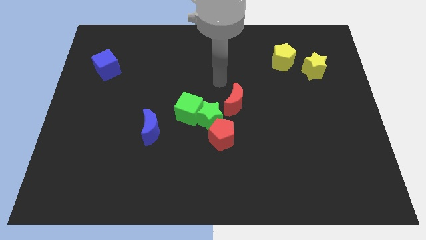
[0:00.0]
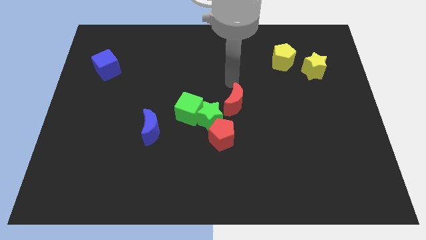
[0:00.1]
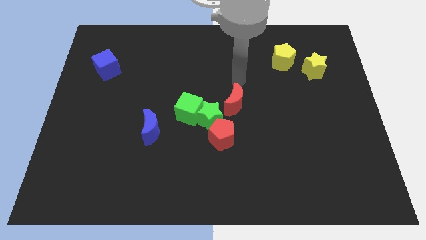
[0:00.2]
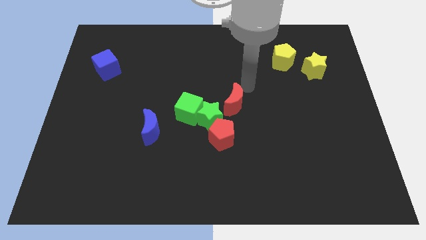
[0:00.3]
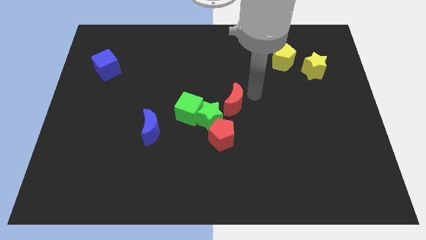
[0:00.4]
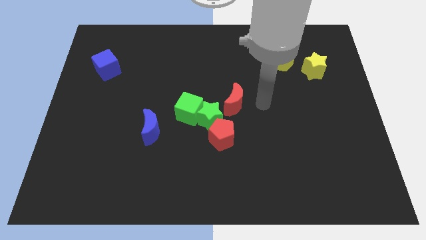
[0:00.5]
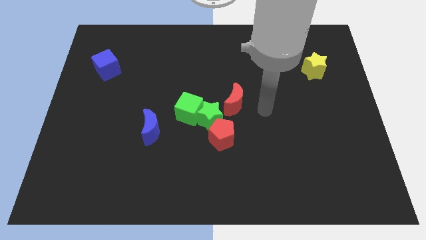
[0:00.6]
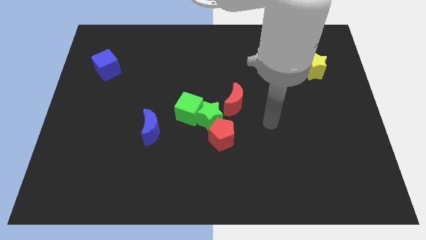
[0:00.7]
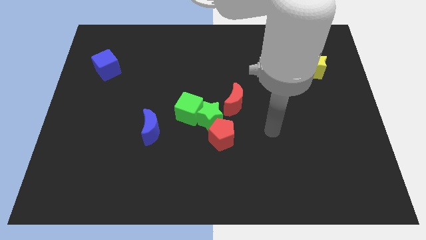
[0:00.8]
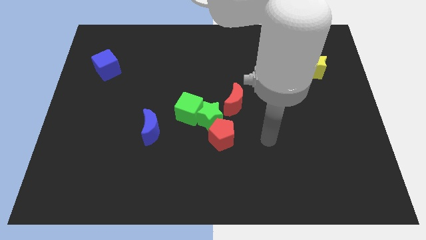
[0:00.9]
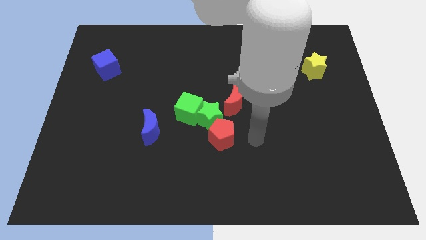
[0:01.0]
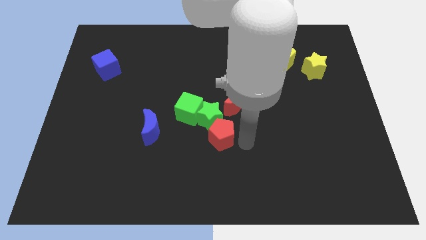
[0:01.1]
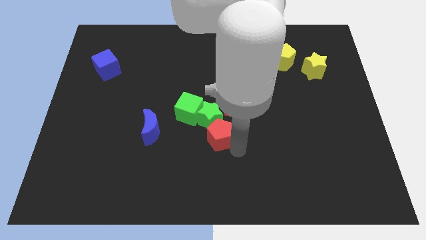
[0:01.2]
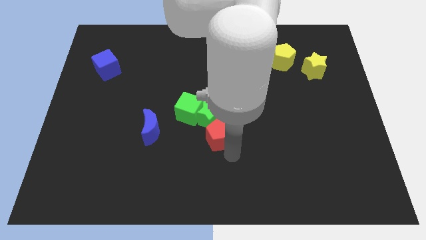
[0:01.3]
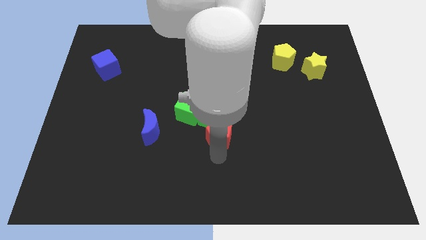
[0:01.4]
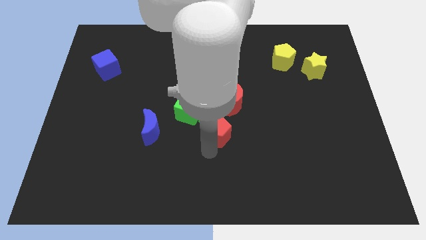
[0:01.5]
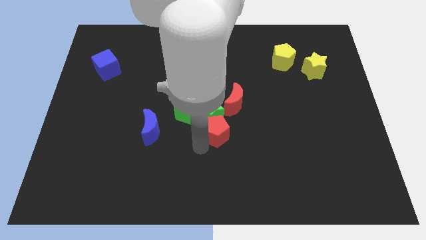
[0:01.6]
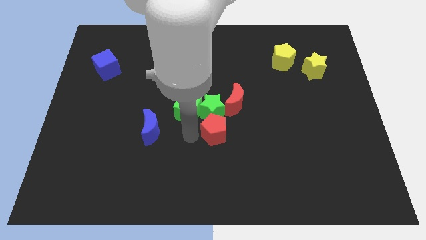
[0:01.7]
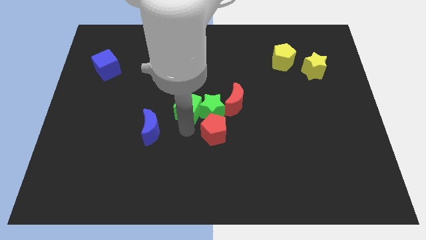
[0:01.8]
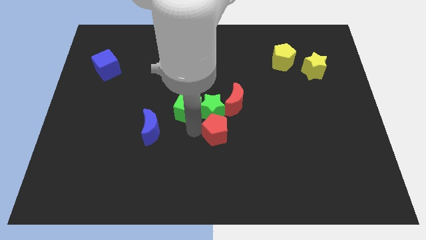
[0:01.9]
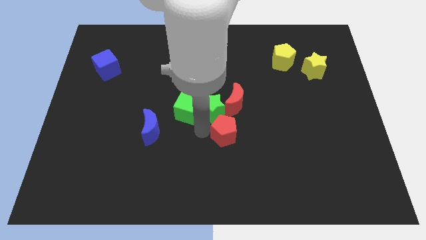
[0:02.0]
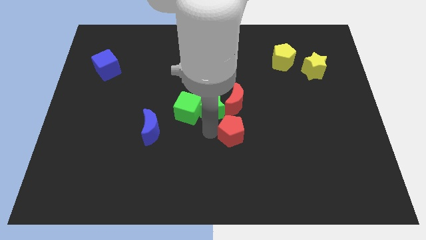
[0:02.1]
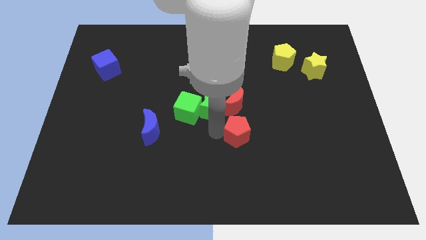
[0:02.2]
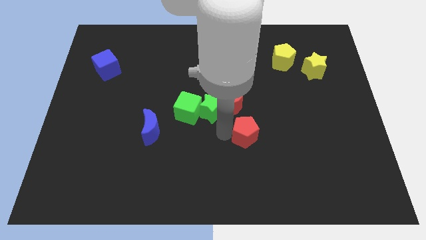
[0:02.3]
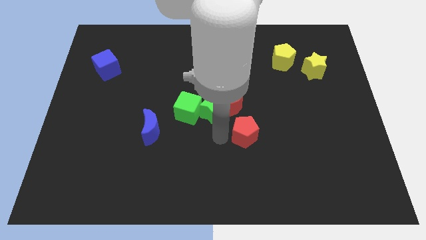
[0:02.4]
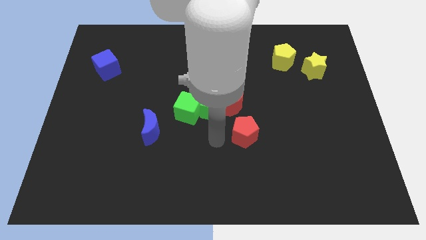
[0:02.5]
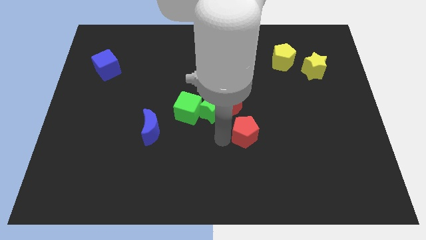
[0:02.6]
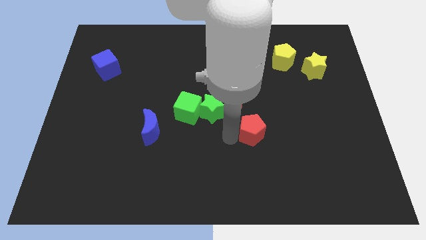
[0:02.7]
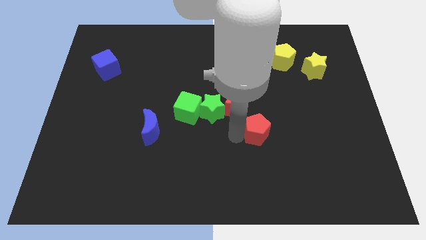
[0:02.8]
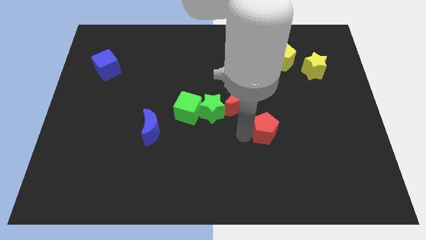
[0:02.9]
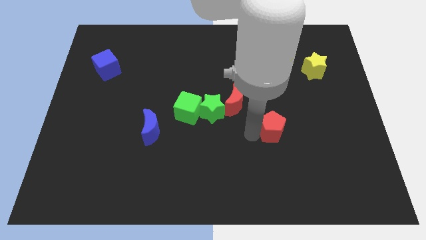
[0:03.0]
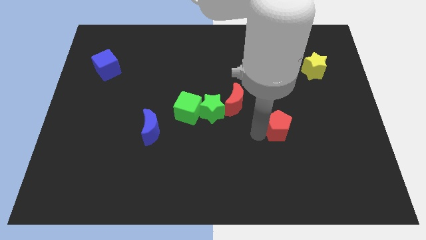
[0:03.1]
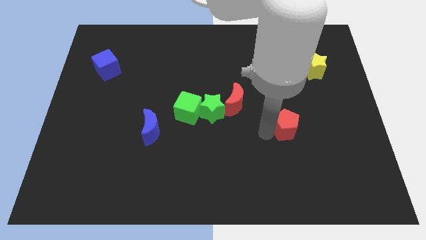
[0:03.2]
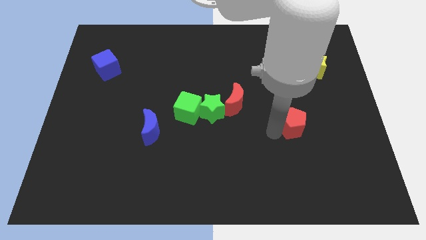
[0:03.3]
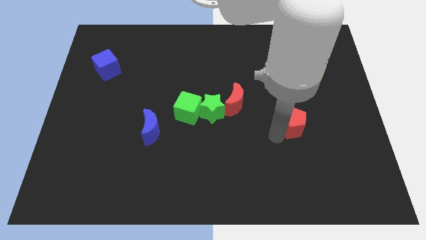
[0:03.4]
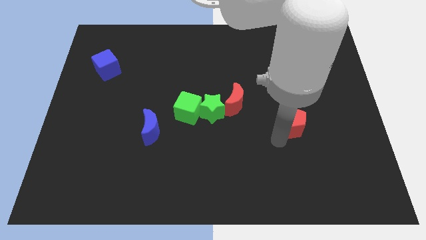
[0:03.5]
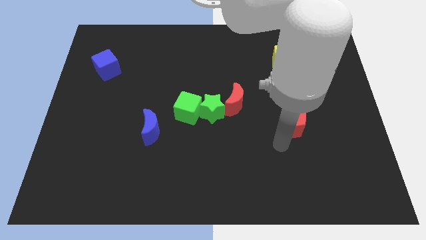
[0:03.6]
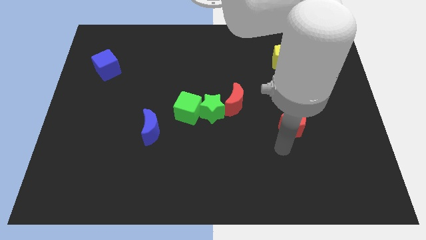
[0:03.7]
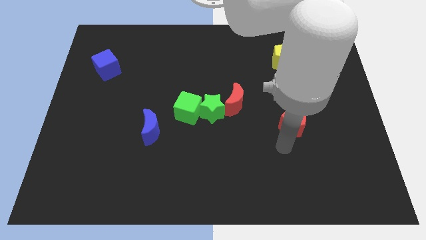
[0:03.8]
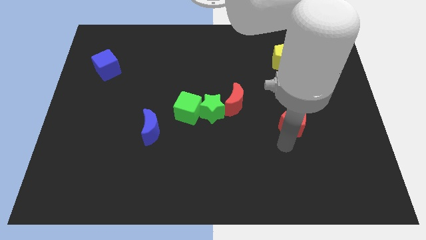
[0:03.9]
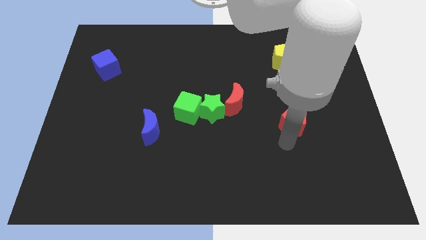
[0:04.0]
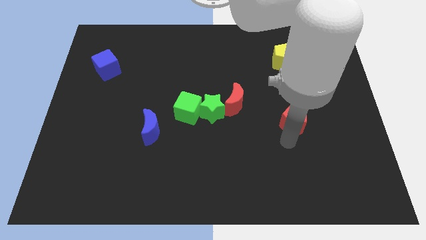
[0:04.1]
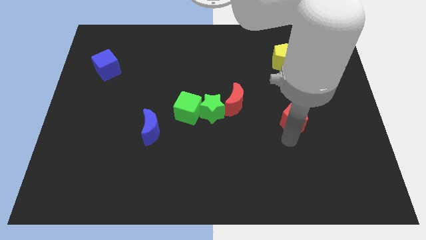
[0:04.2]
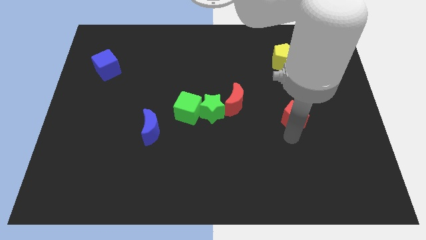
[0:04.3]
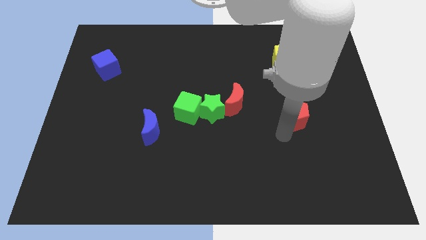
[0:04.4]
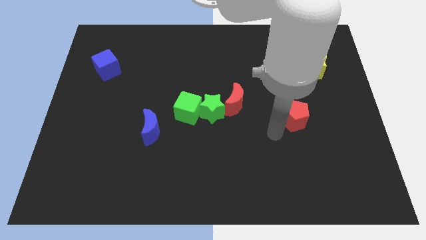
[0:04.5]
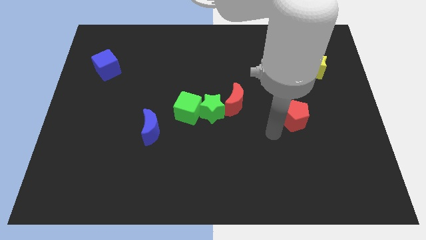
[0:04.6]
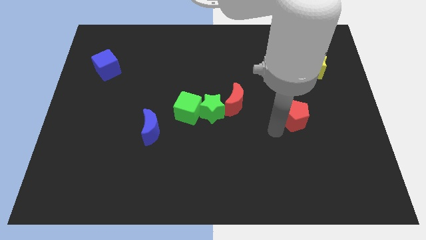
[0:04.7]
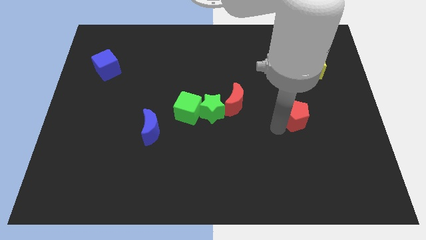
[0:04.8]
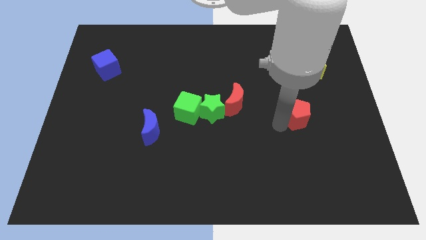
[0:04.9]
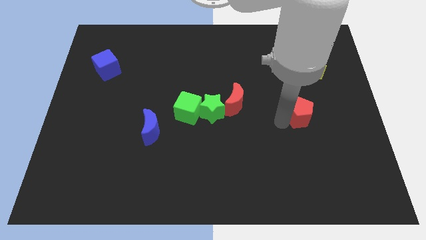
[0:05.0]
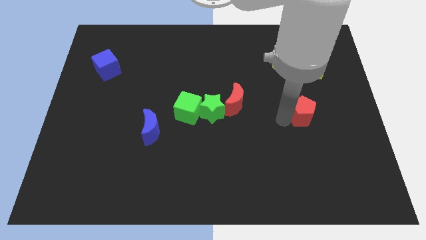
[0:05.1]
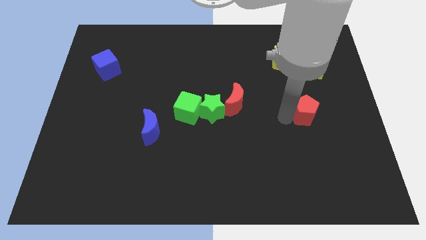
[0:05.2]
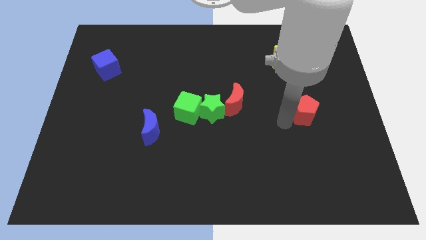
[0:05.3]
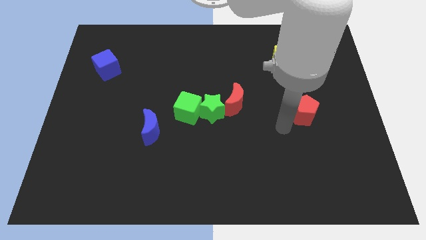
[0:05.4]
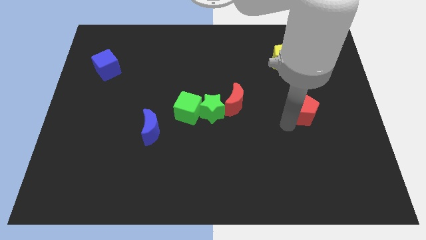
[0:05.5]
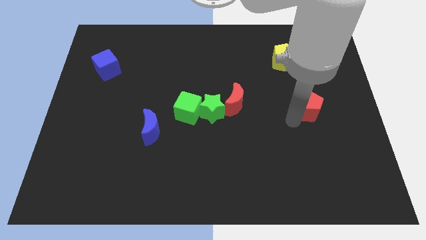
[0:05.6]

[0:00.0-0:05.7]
slide the red pentagon below the yellow star

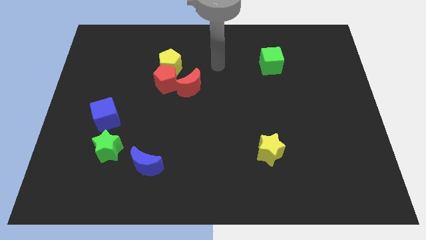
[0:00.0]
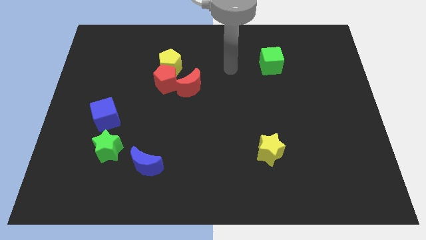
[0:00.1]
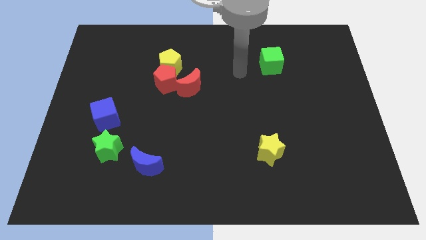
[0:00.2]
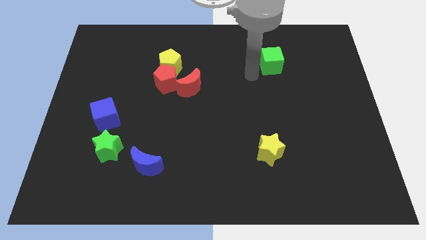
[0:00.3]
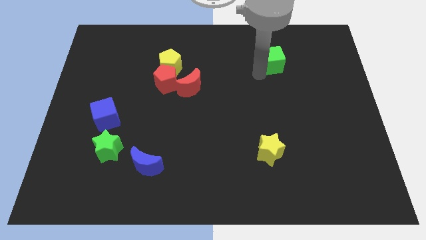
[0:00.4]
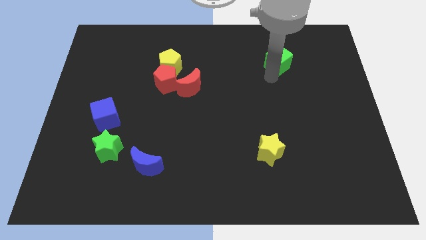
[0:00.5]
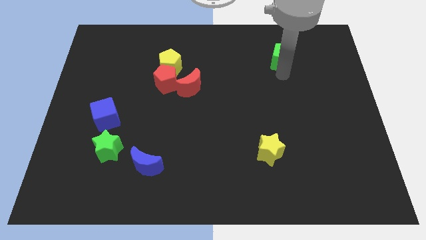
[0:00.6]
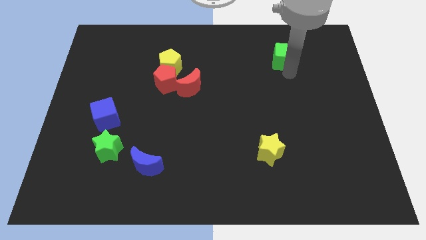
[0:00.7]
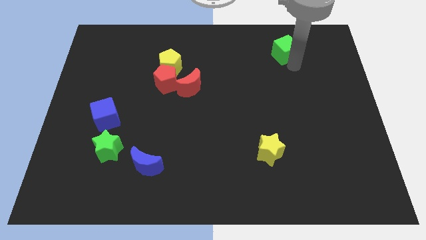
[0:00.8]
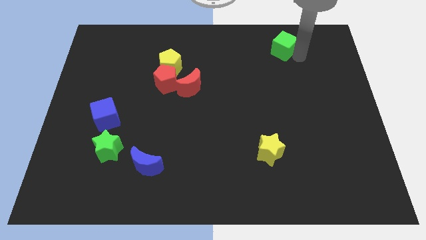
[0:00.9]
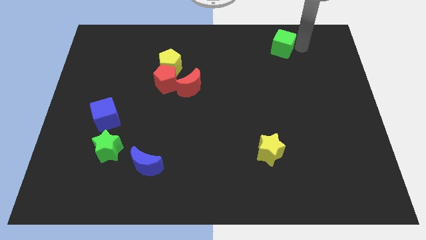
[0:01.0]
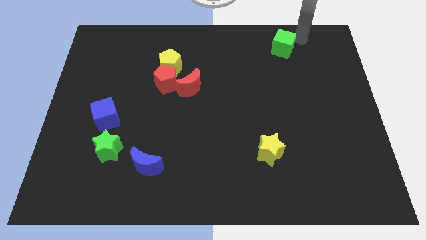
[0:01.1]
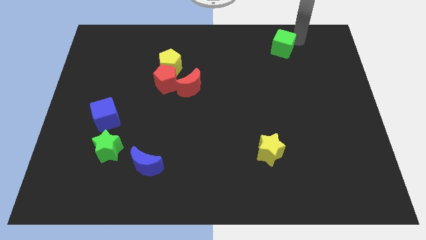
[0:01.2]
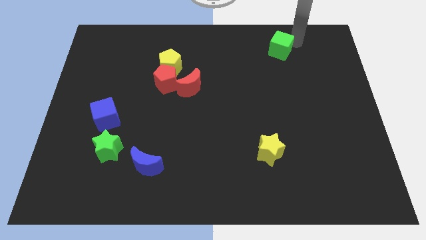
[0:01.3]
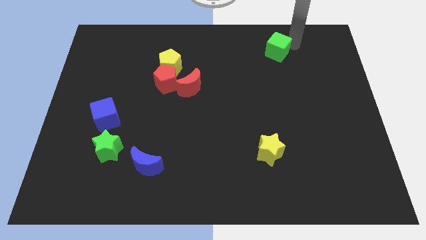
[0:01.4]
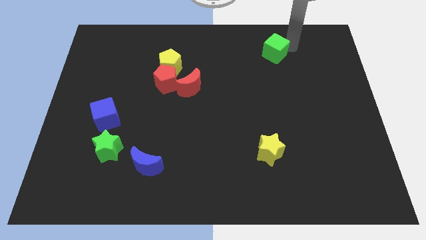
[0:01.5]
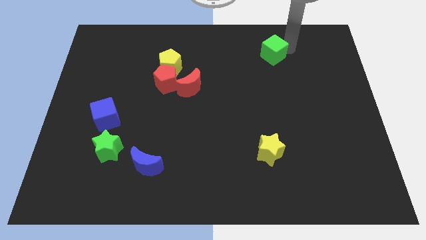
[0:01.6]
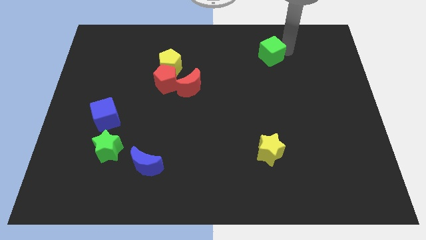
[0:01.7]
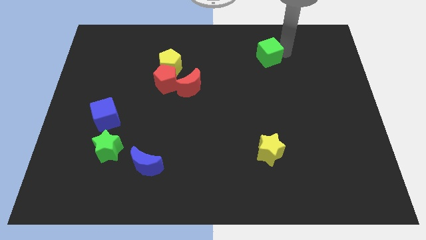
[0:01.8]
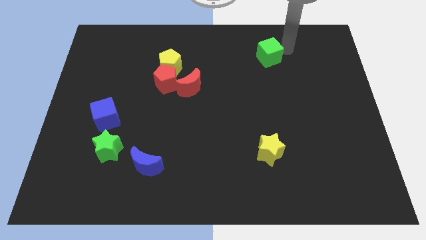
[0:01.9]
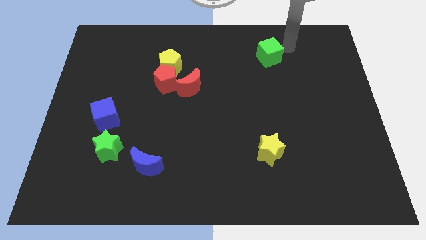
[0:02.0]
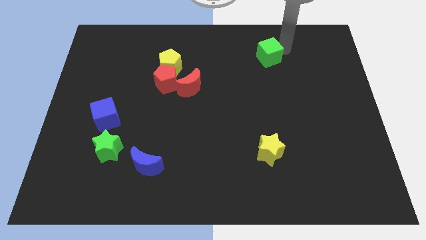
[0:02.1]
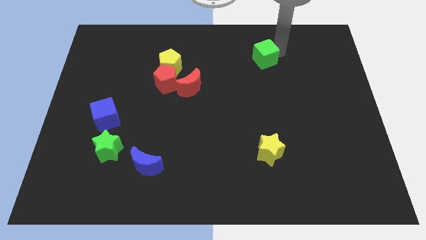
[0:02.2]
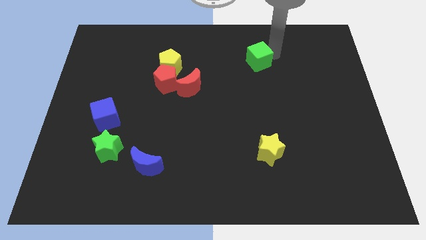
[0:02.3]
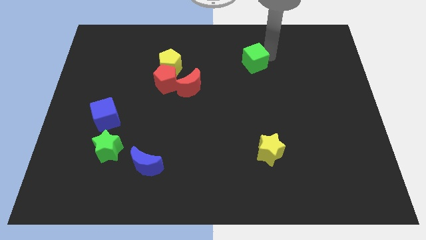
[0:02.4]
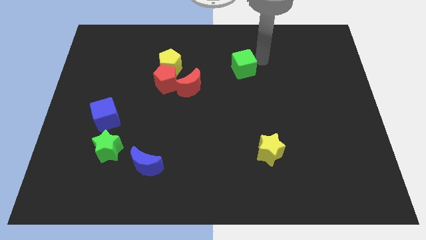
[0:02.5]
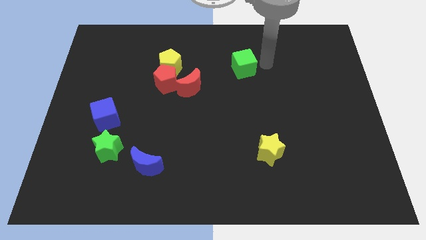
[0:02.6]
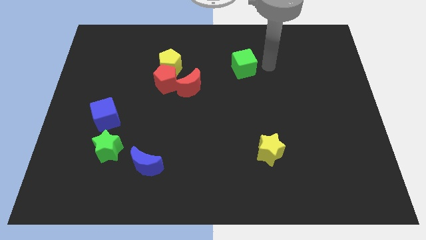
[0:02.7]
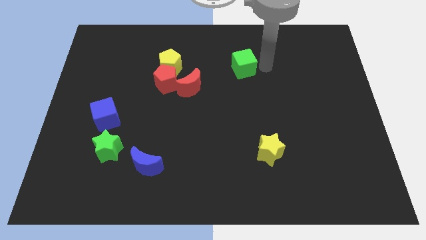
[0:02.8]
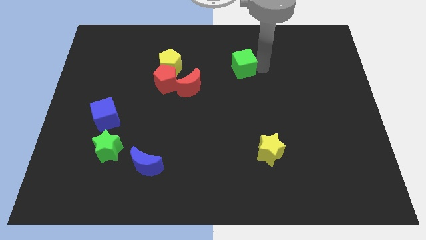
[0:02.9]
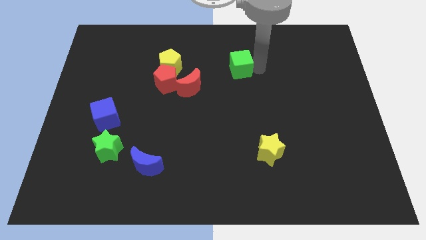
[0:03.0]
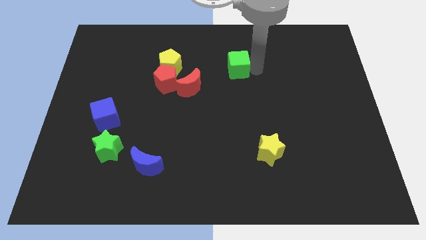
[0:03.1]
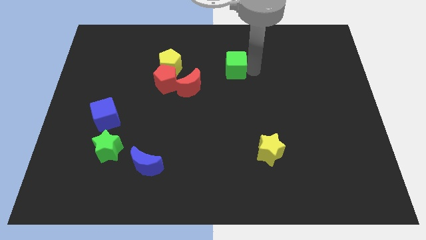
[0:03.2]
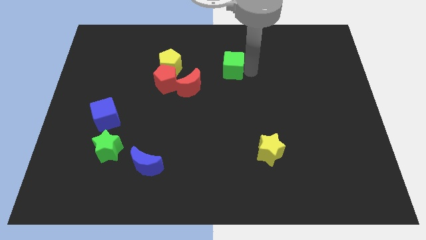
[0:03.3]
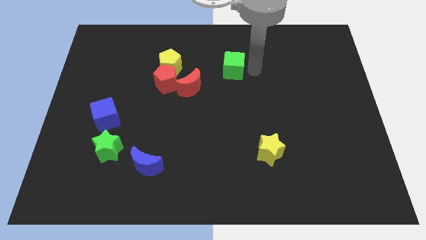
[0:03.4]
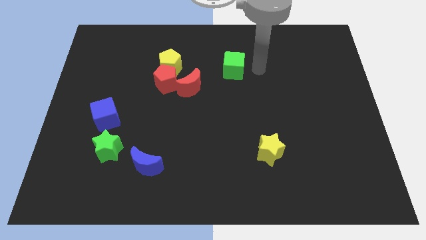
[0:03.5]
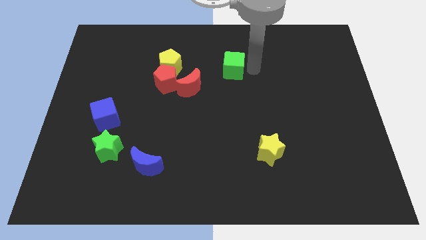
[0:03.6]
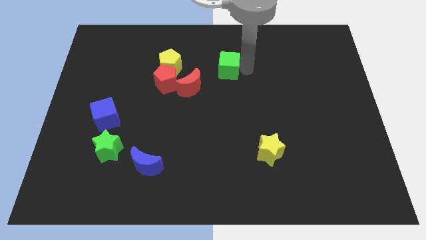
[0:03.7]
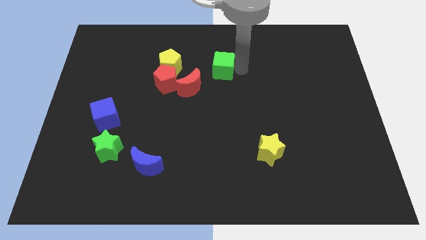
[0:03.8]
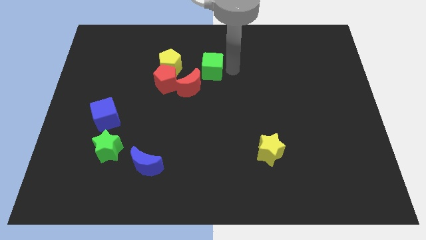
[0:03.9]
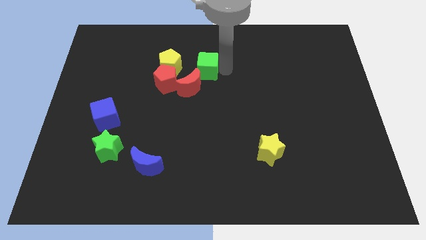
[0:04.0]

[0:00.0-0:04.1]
move the green cube to the top right side of the red pentagon
